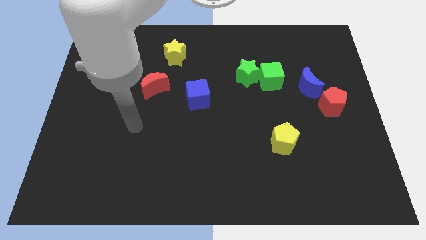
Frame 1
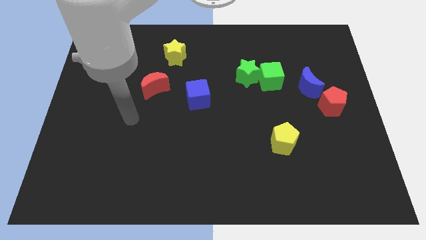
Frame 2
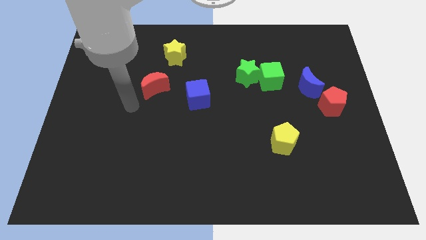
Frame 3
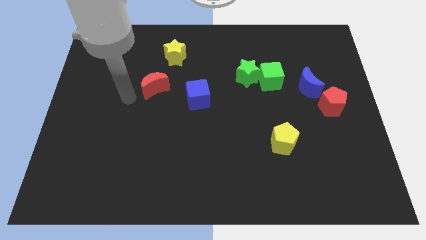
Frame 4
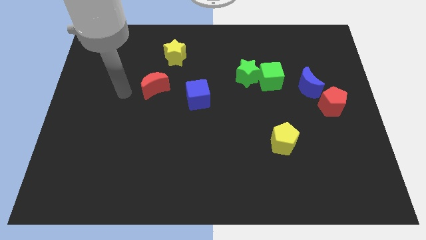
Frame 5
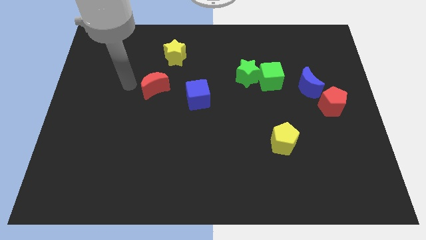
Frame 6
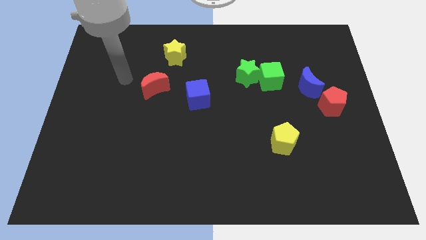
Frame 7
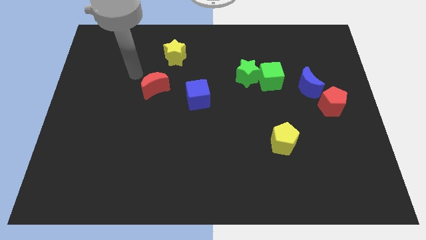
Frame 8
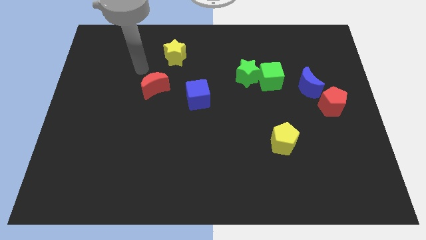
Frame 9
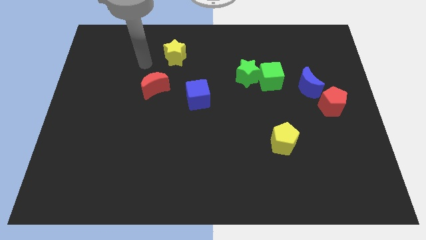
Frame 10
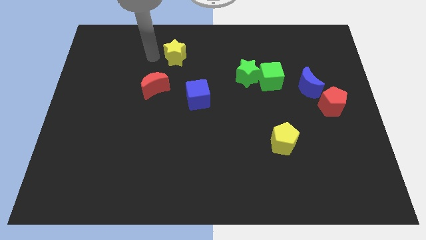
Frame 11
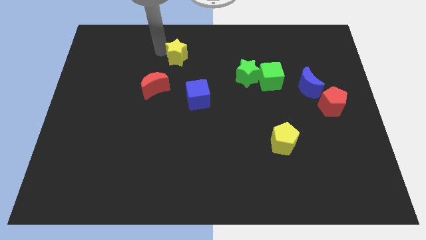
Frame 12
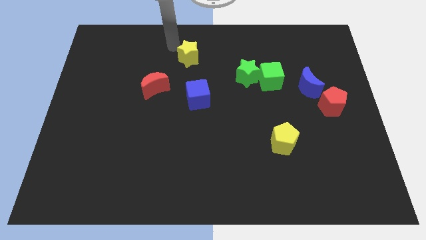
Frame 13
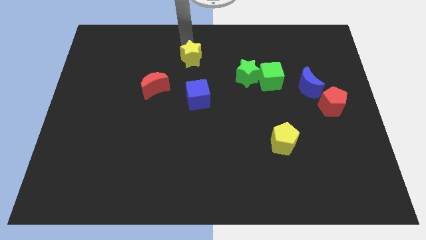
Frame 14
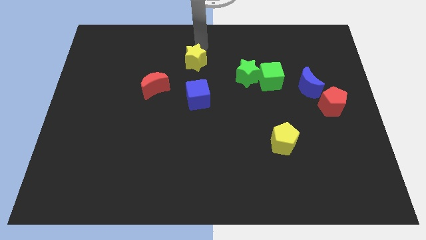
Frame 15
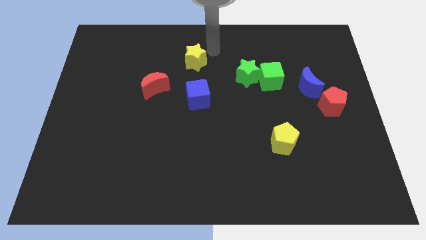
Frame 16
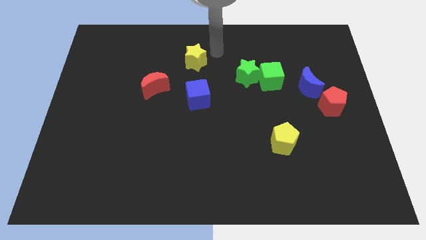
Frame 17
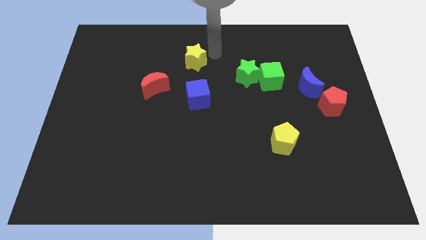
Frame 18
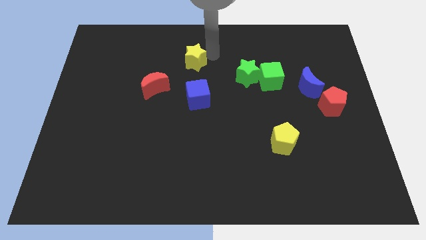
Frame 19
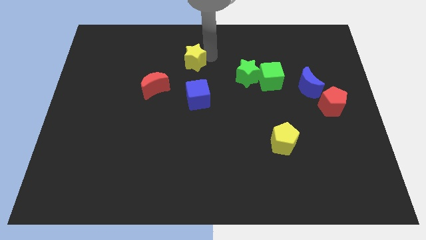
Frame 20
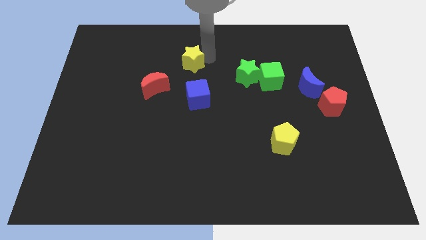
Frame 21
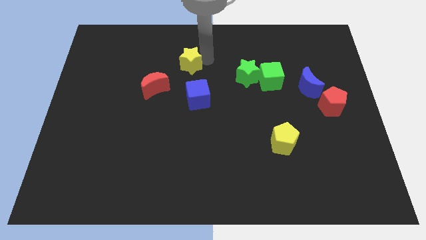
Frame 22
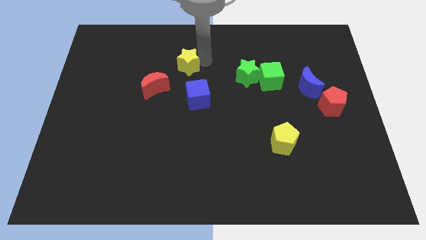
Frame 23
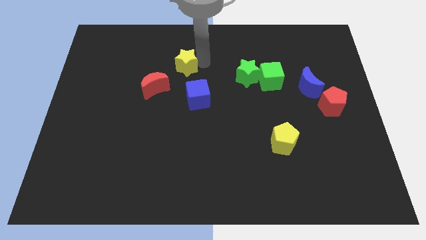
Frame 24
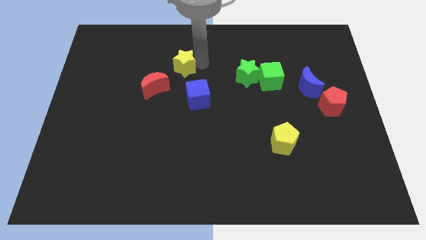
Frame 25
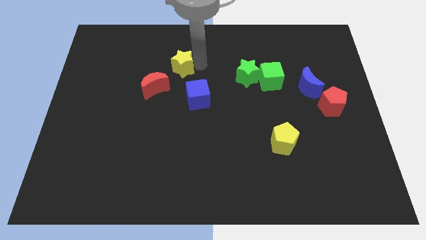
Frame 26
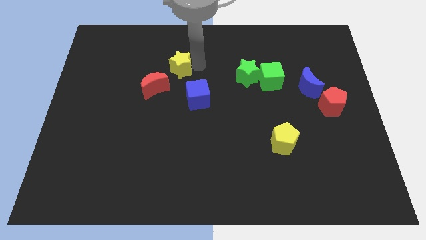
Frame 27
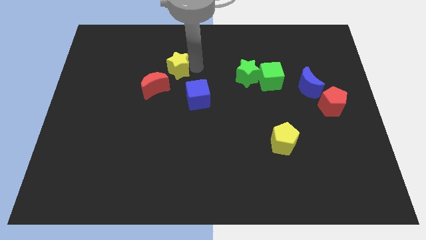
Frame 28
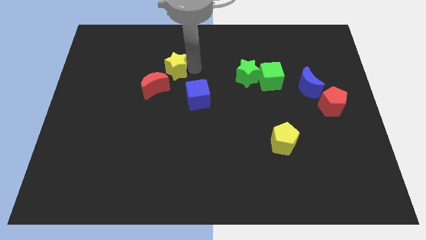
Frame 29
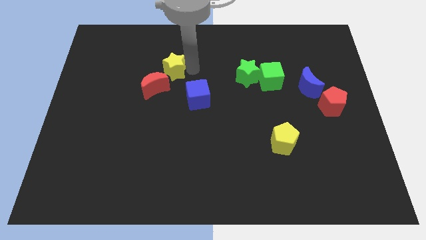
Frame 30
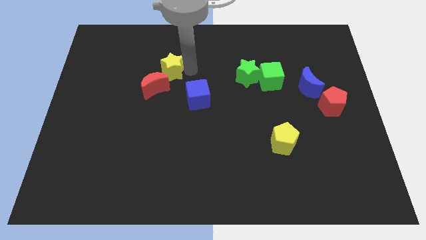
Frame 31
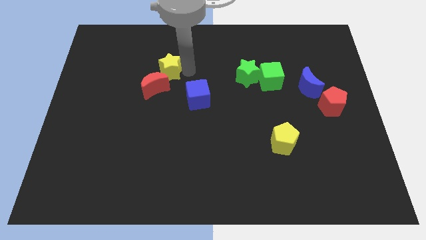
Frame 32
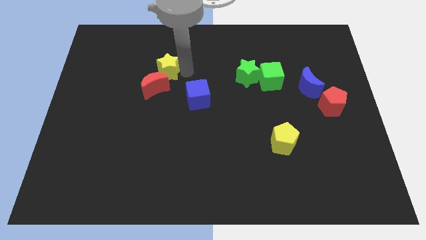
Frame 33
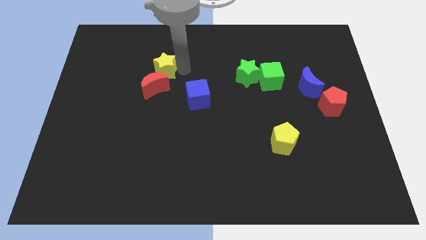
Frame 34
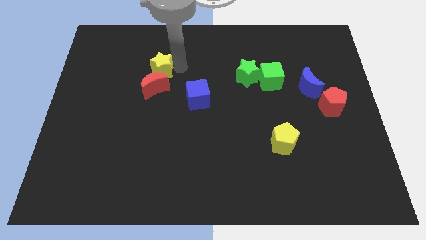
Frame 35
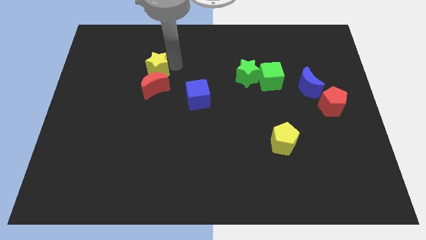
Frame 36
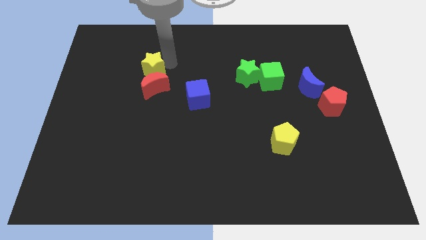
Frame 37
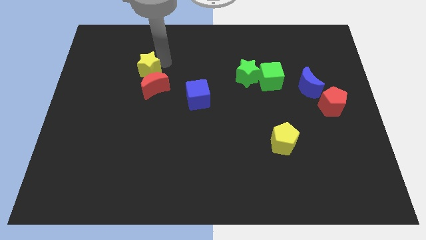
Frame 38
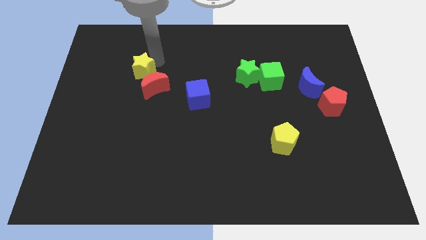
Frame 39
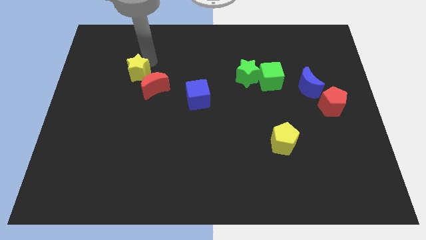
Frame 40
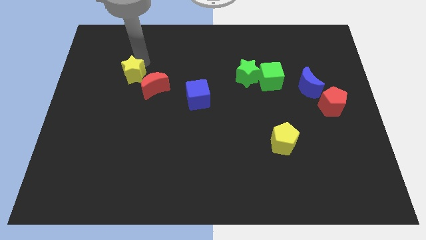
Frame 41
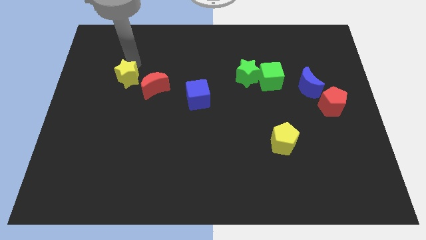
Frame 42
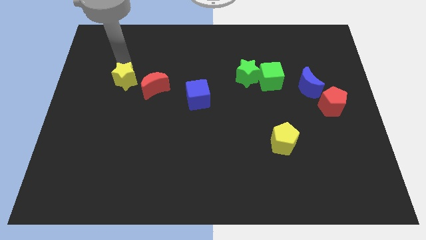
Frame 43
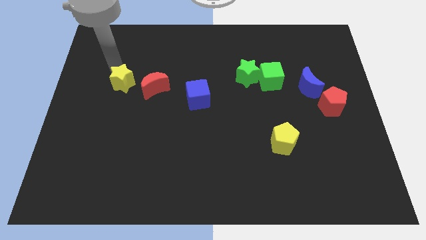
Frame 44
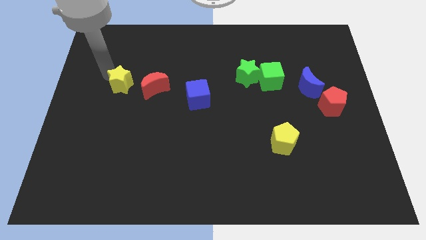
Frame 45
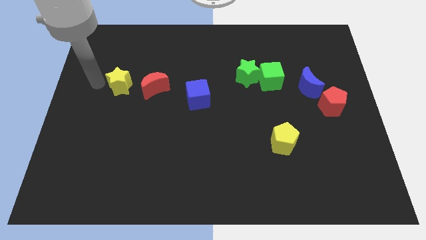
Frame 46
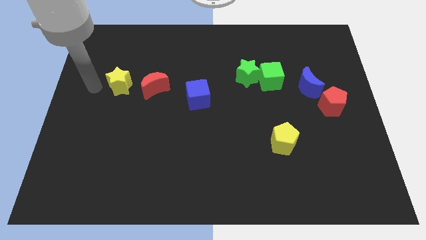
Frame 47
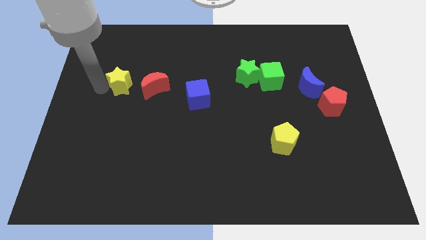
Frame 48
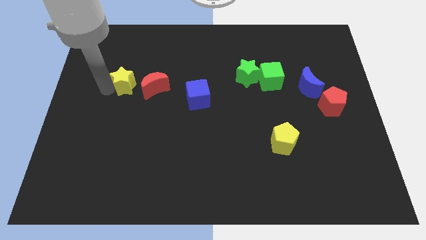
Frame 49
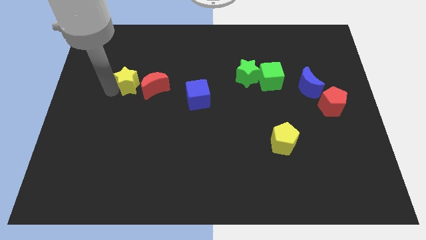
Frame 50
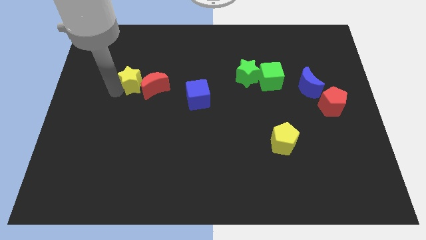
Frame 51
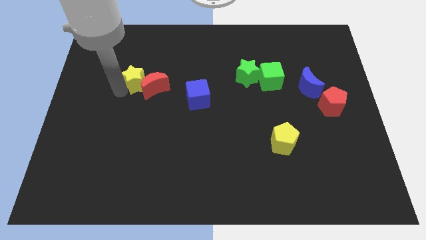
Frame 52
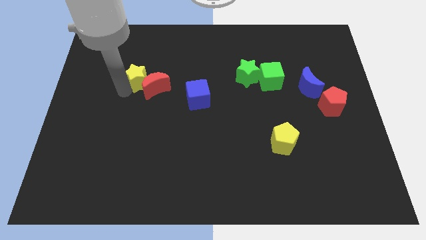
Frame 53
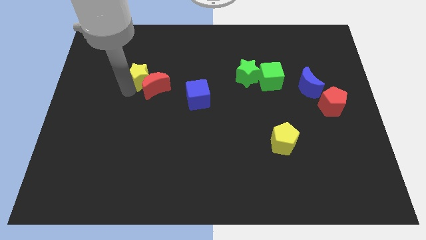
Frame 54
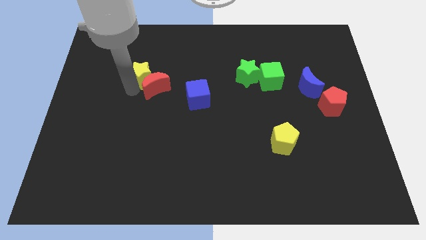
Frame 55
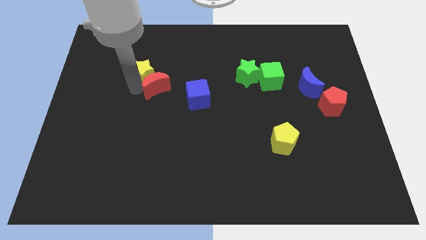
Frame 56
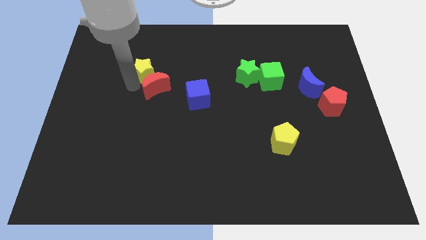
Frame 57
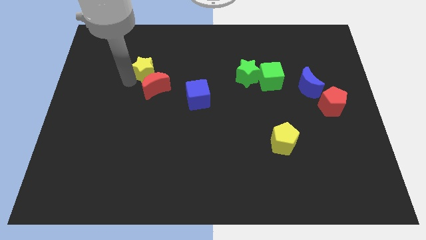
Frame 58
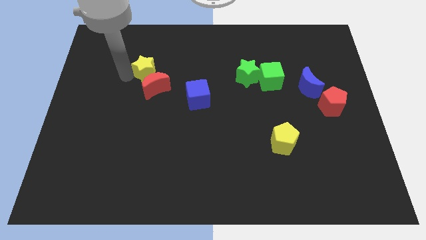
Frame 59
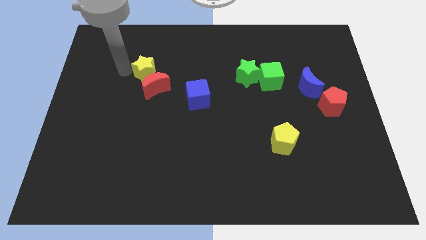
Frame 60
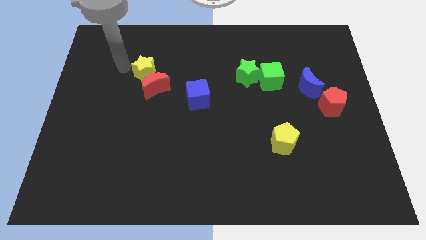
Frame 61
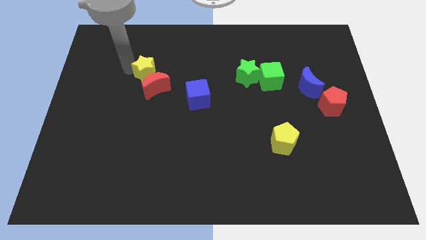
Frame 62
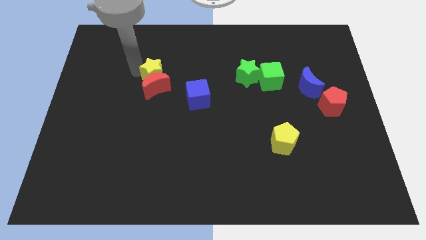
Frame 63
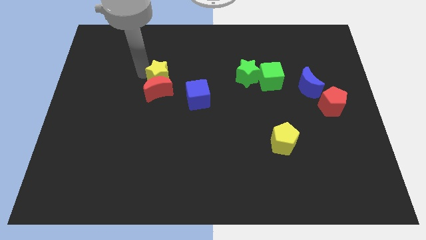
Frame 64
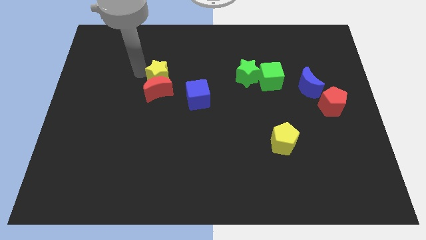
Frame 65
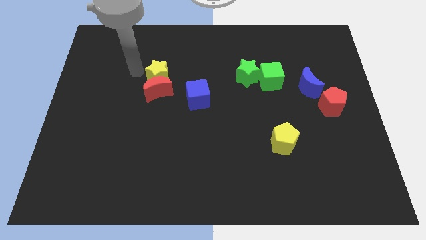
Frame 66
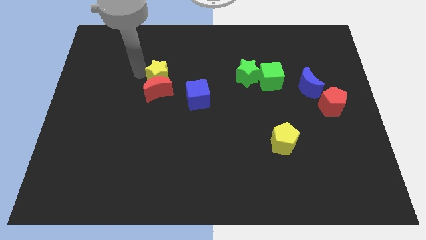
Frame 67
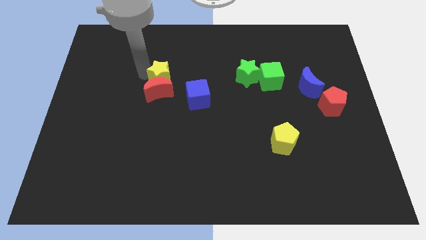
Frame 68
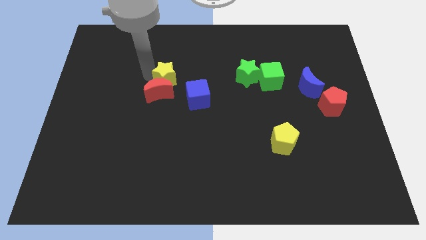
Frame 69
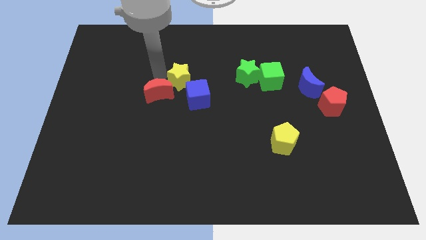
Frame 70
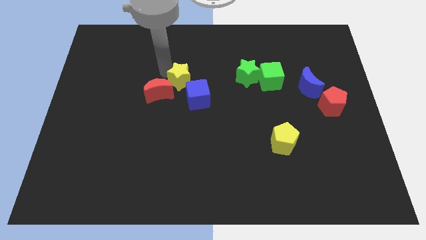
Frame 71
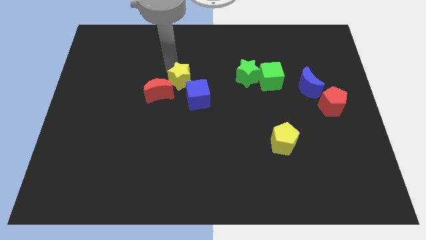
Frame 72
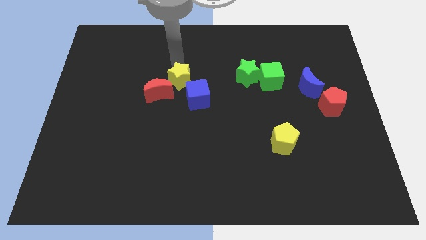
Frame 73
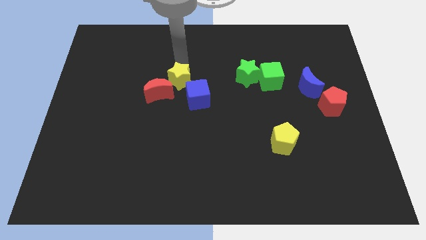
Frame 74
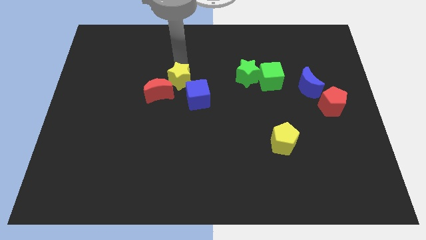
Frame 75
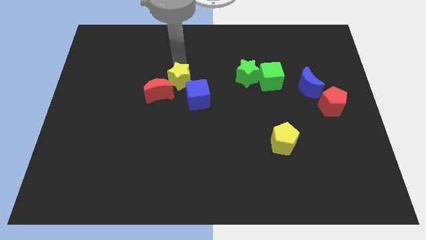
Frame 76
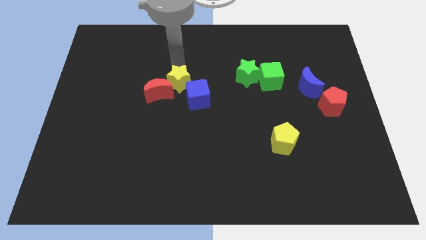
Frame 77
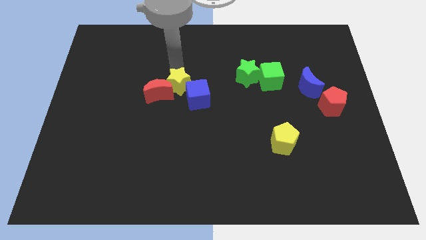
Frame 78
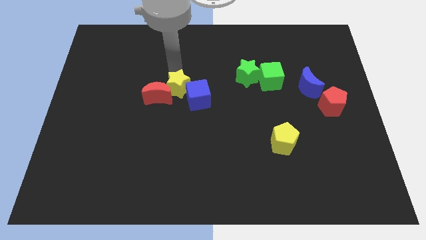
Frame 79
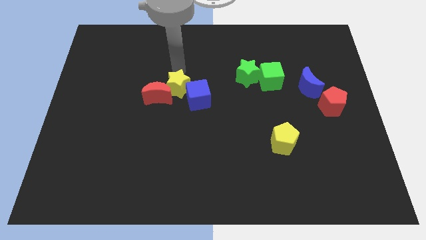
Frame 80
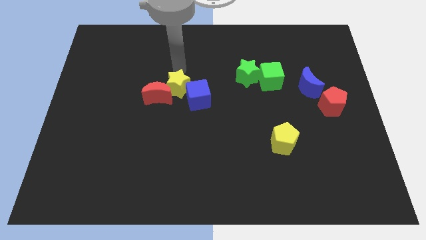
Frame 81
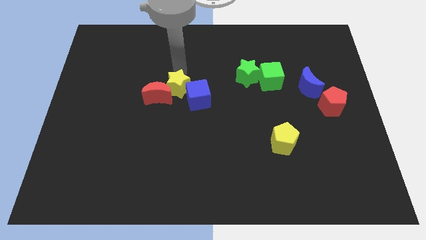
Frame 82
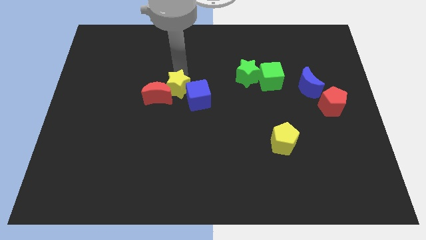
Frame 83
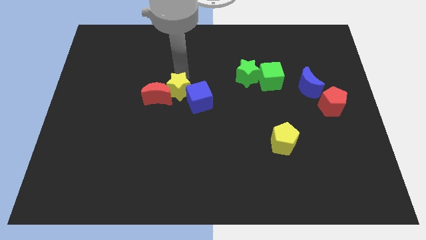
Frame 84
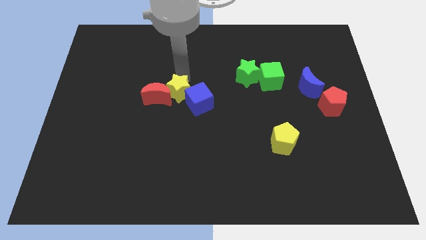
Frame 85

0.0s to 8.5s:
move the yellow star to the bottom right of the red moon
